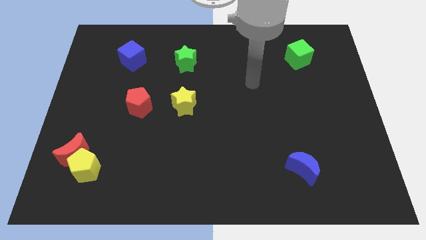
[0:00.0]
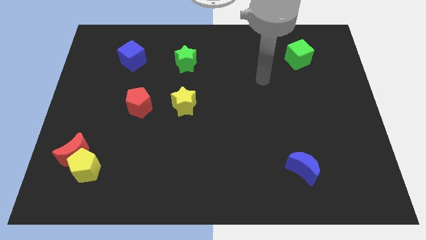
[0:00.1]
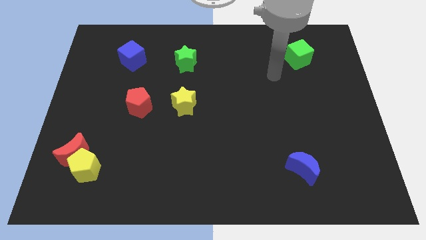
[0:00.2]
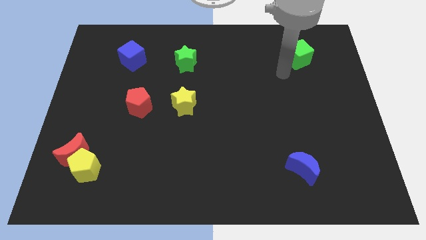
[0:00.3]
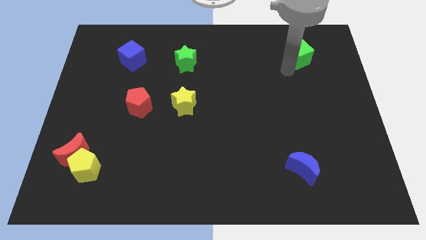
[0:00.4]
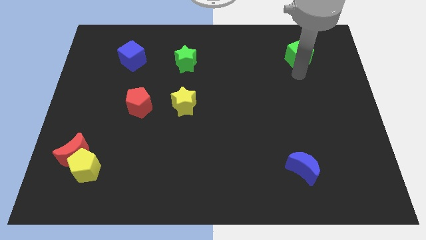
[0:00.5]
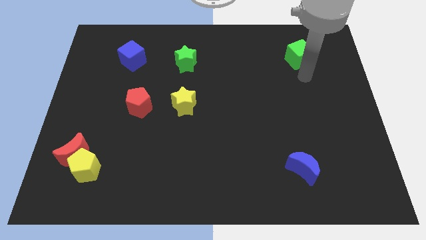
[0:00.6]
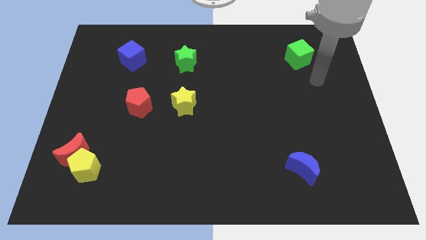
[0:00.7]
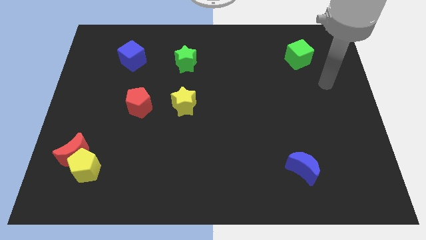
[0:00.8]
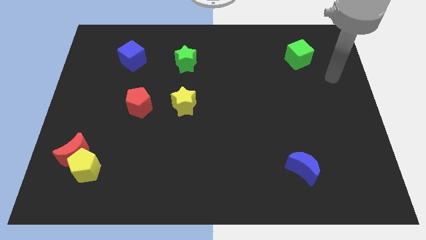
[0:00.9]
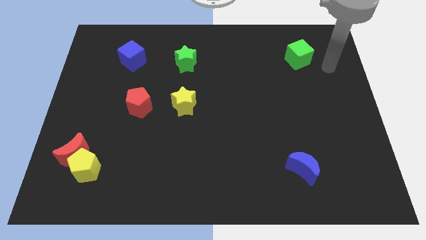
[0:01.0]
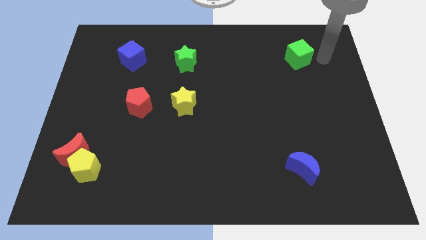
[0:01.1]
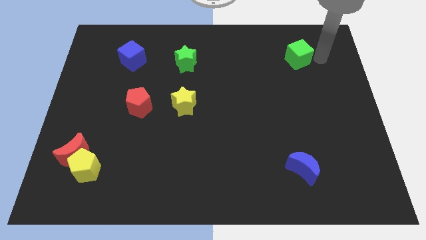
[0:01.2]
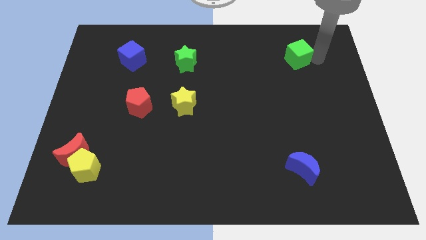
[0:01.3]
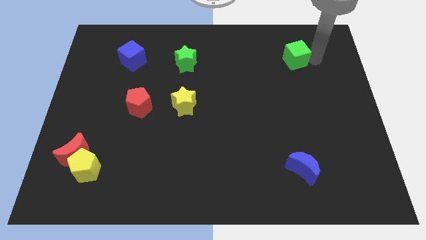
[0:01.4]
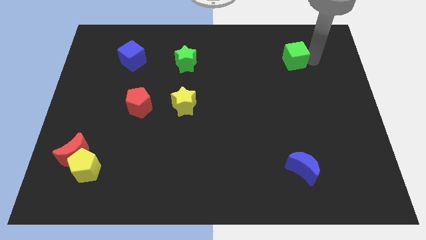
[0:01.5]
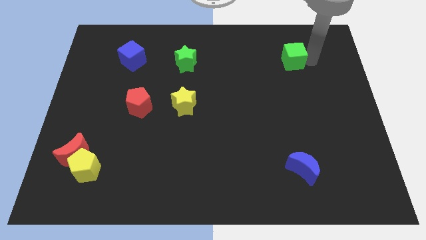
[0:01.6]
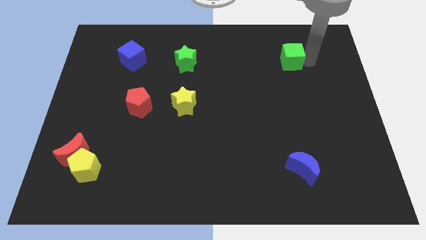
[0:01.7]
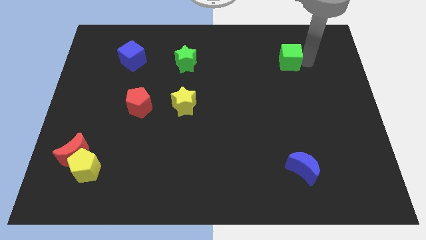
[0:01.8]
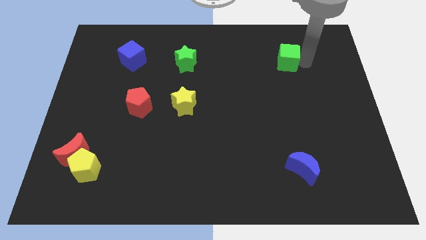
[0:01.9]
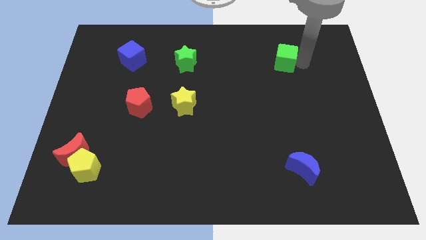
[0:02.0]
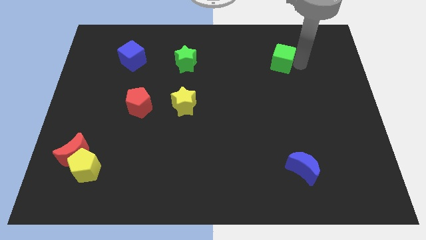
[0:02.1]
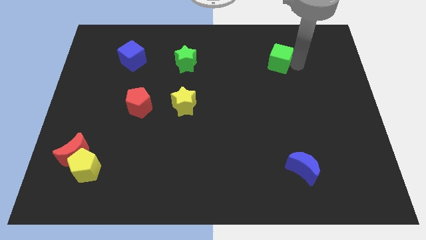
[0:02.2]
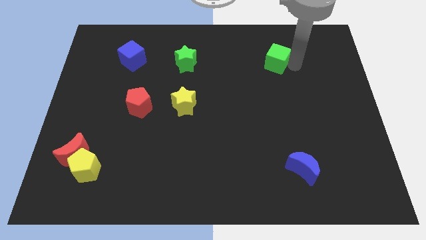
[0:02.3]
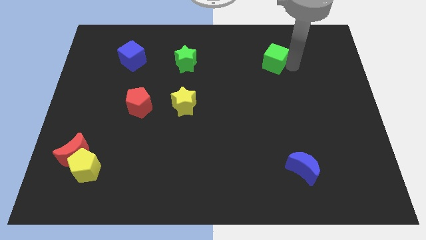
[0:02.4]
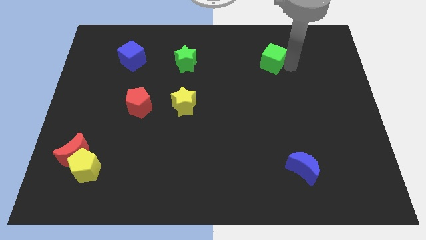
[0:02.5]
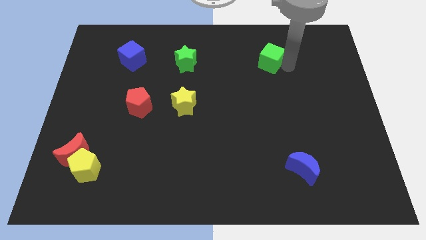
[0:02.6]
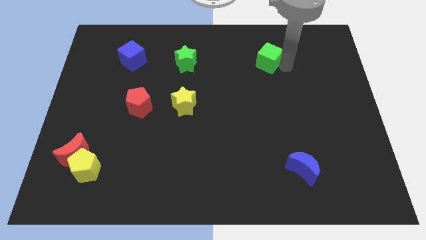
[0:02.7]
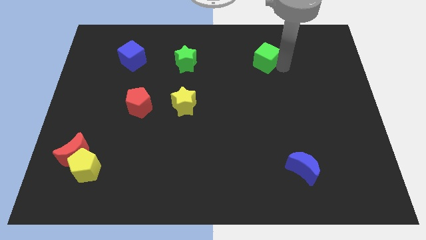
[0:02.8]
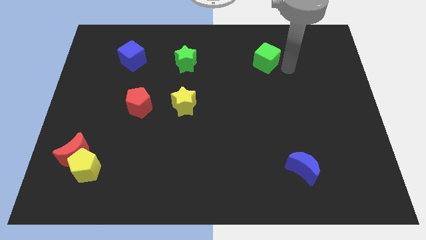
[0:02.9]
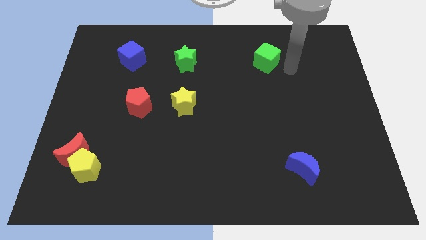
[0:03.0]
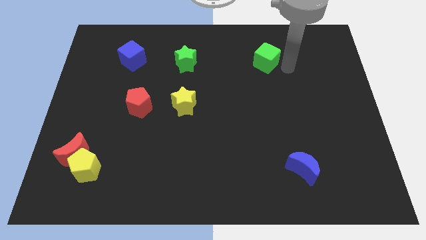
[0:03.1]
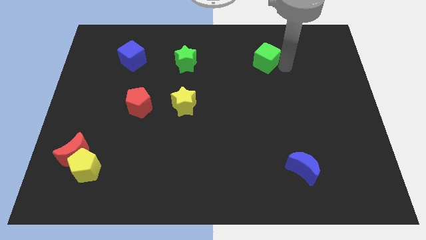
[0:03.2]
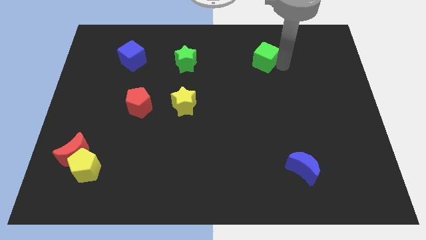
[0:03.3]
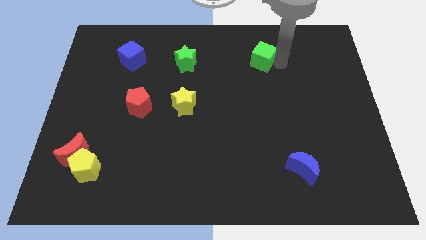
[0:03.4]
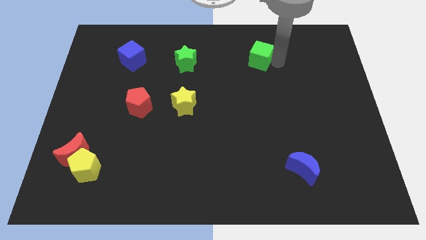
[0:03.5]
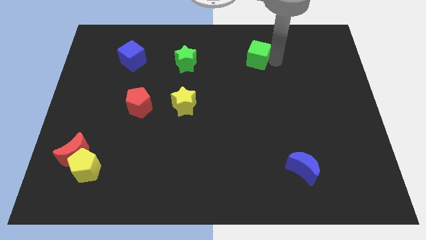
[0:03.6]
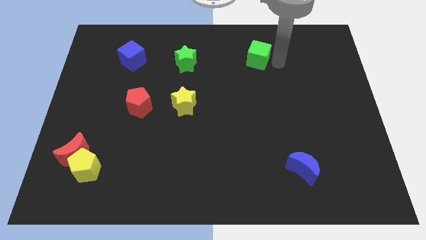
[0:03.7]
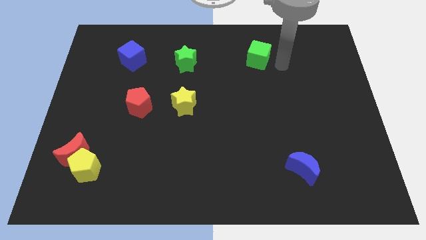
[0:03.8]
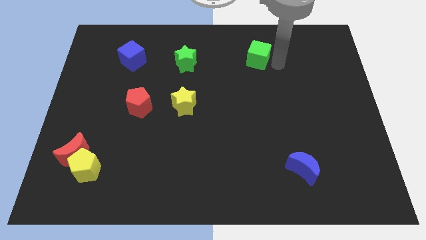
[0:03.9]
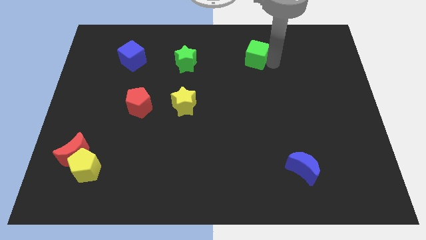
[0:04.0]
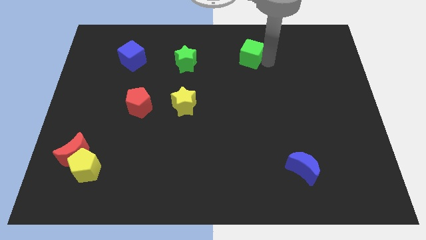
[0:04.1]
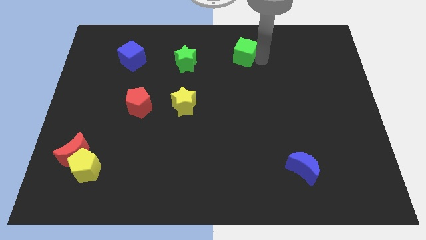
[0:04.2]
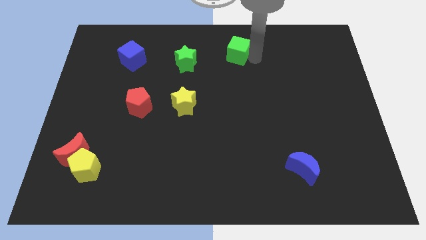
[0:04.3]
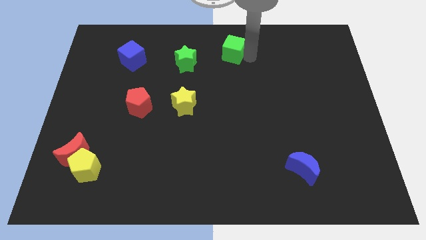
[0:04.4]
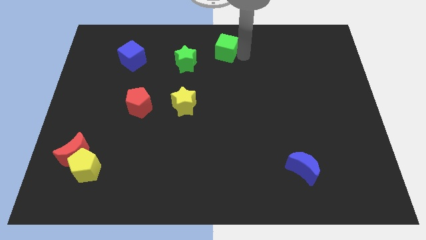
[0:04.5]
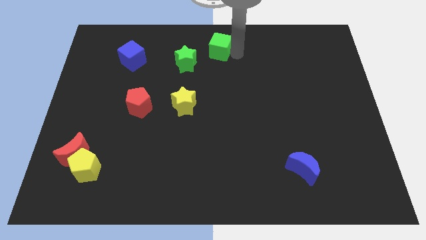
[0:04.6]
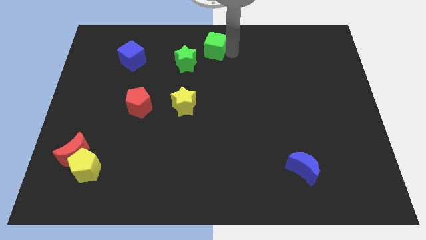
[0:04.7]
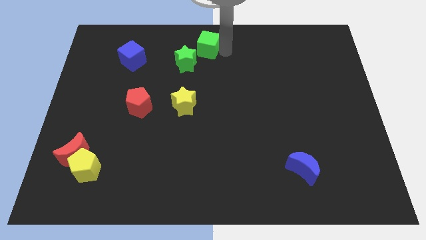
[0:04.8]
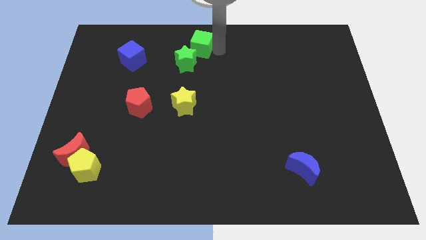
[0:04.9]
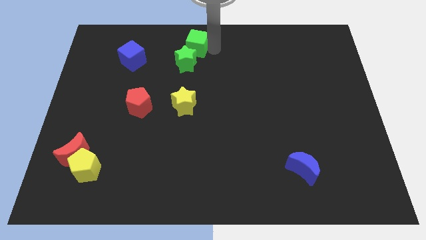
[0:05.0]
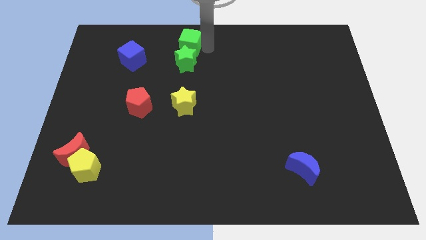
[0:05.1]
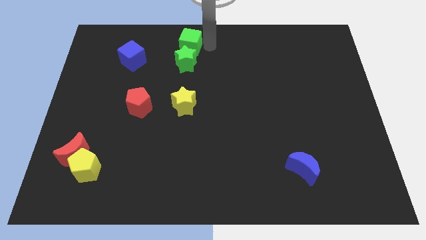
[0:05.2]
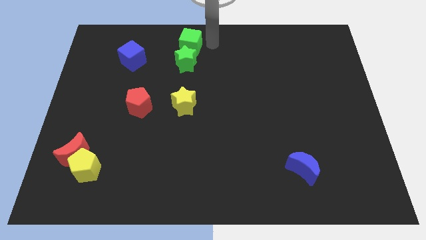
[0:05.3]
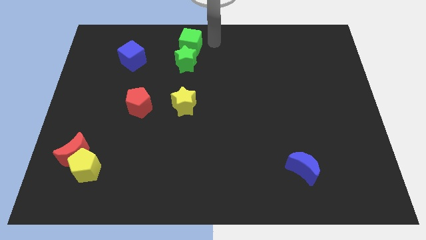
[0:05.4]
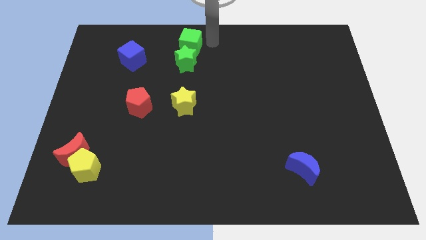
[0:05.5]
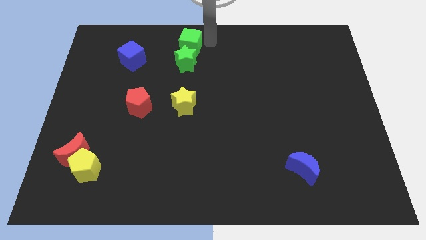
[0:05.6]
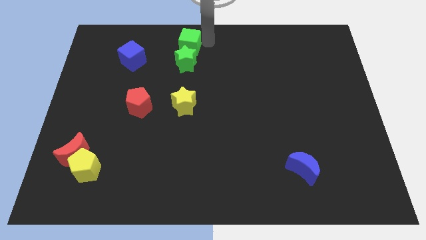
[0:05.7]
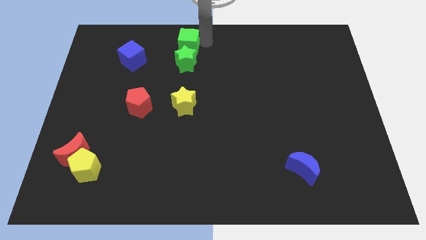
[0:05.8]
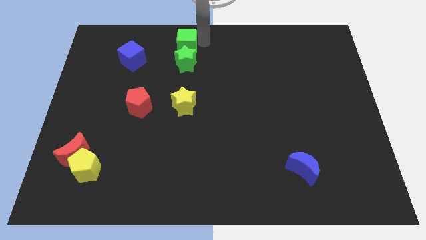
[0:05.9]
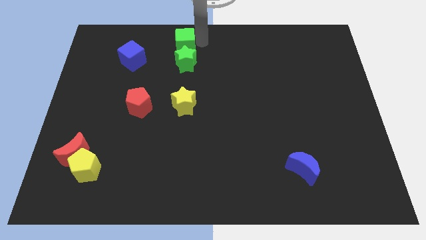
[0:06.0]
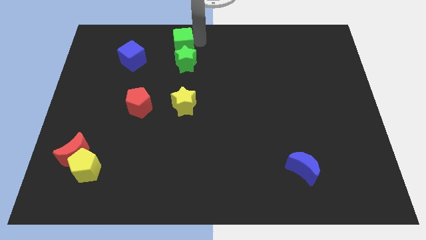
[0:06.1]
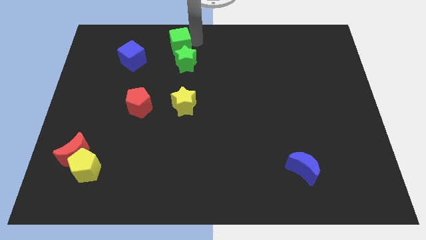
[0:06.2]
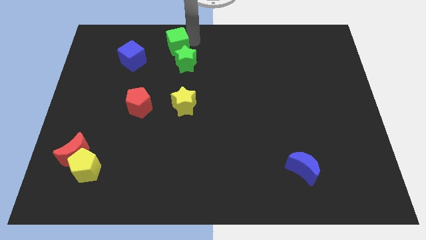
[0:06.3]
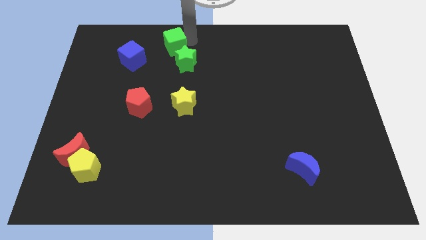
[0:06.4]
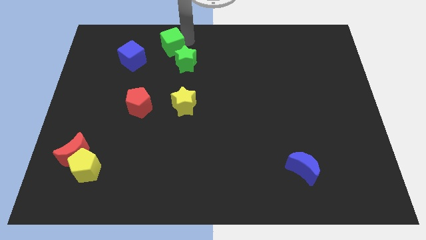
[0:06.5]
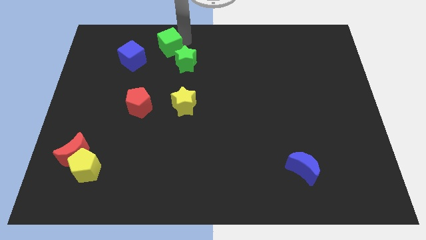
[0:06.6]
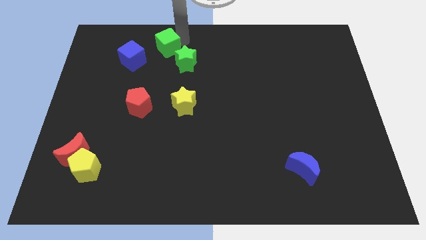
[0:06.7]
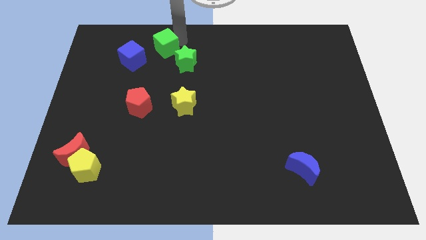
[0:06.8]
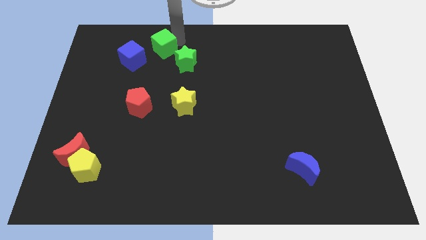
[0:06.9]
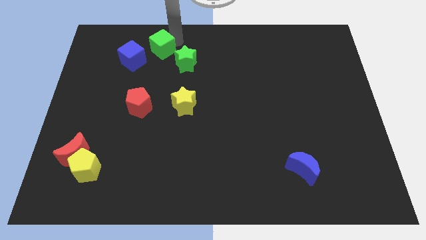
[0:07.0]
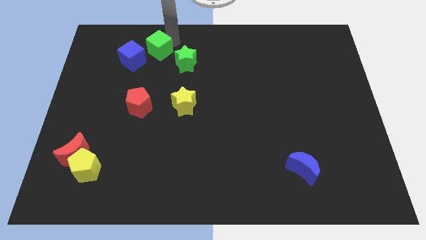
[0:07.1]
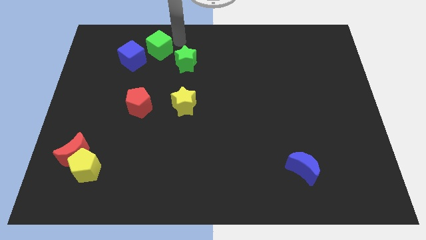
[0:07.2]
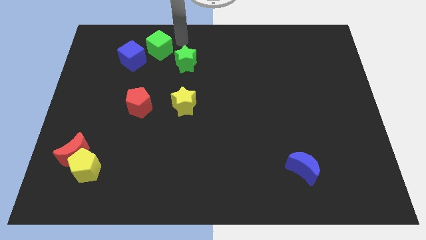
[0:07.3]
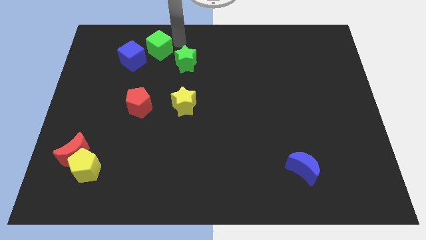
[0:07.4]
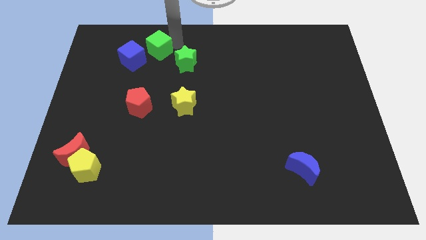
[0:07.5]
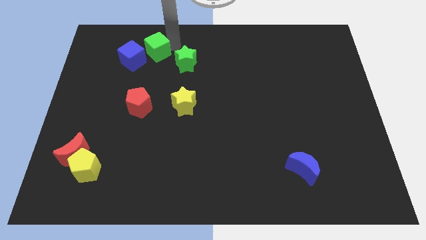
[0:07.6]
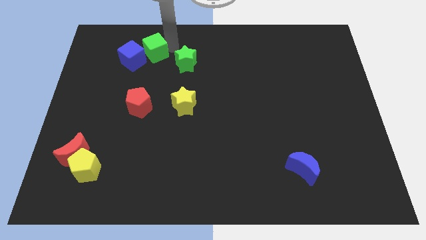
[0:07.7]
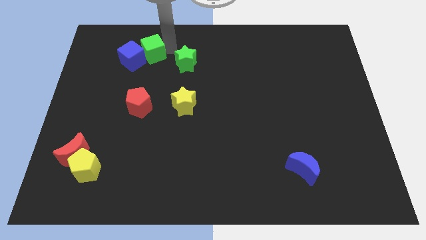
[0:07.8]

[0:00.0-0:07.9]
slide the green cube to the blue cube
